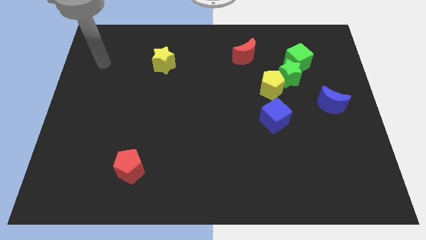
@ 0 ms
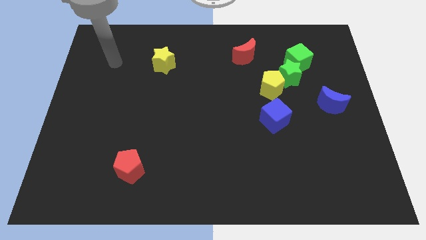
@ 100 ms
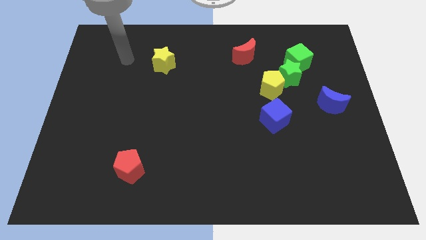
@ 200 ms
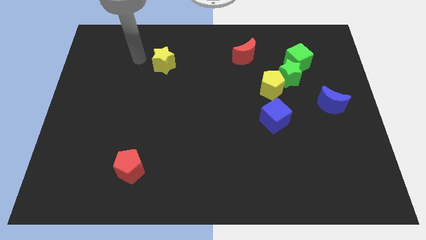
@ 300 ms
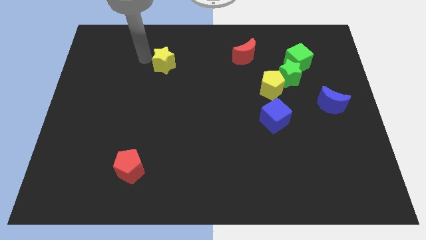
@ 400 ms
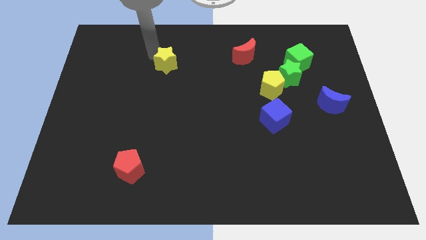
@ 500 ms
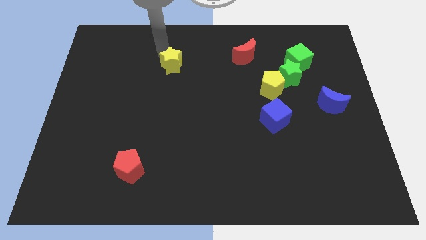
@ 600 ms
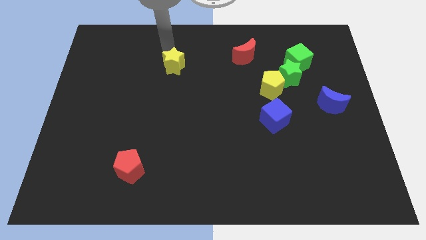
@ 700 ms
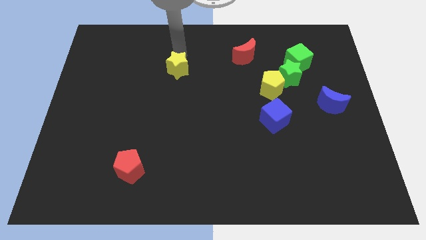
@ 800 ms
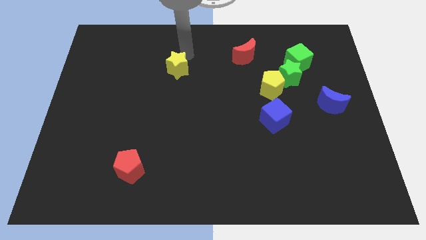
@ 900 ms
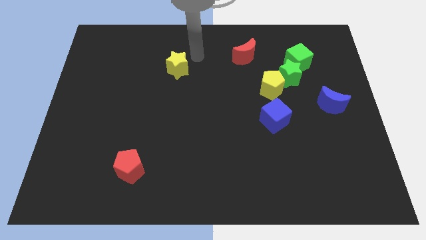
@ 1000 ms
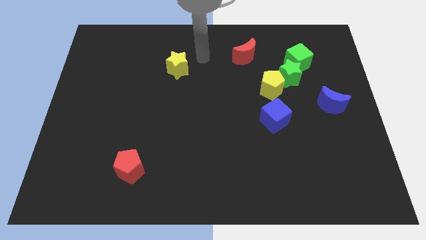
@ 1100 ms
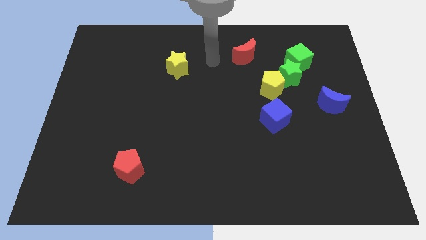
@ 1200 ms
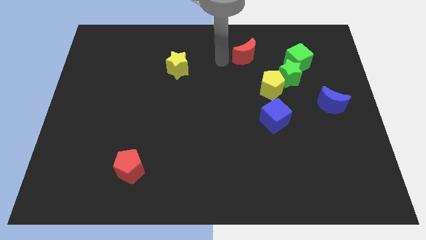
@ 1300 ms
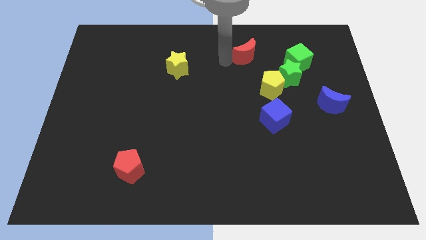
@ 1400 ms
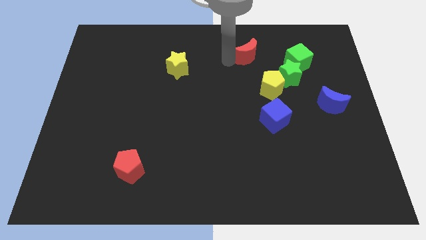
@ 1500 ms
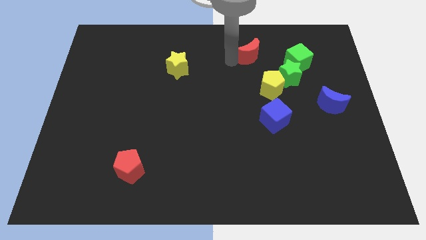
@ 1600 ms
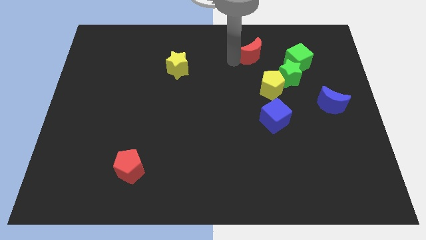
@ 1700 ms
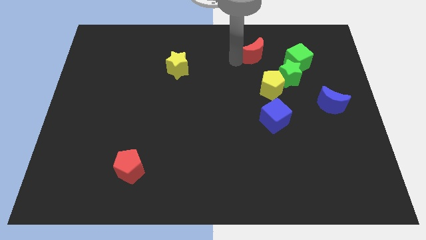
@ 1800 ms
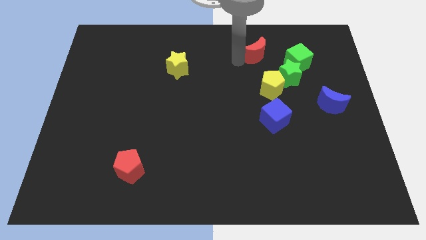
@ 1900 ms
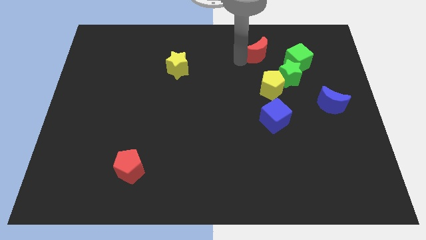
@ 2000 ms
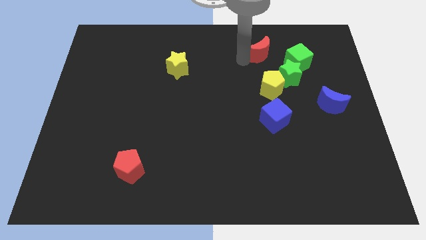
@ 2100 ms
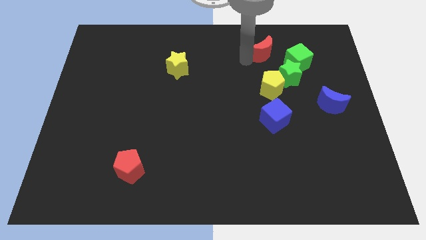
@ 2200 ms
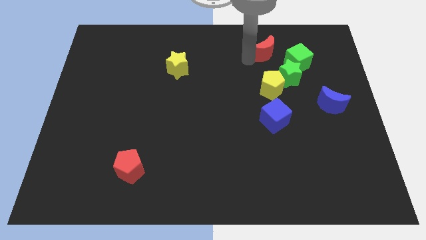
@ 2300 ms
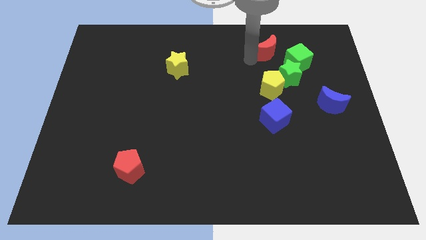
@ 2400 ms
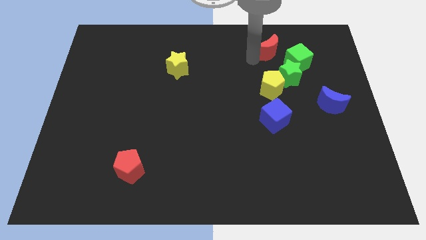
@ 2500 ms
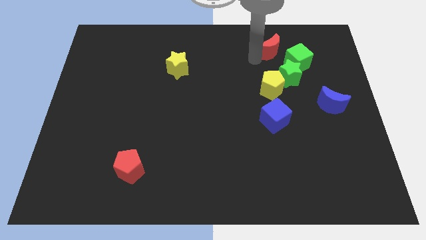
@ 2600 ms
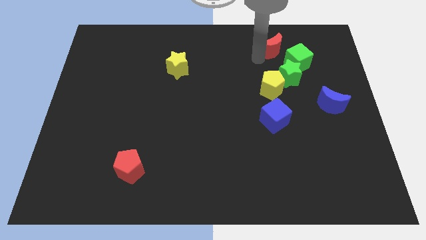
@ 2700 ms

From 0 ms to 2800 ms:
push the red moon to the right a little

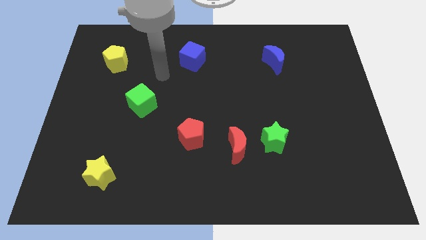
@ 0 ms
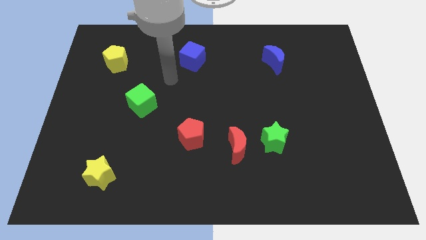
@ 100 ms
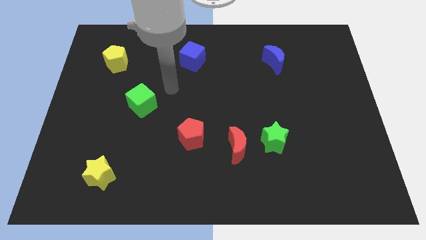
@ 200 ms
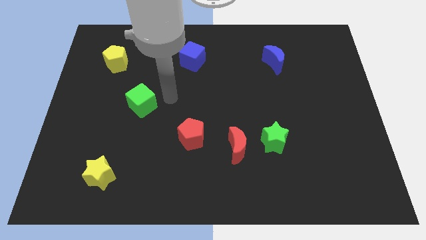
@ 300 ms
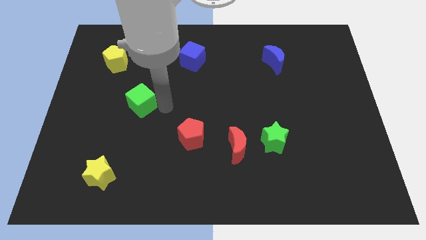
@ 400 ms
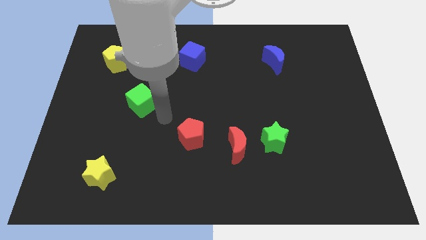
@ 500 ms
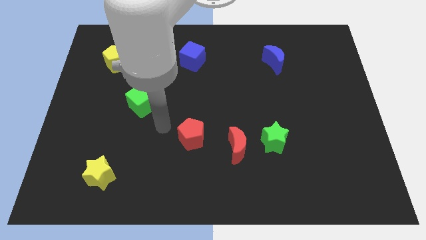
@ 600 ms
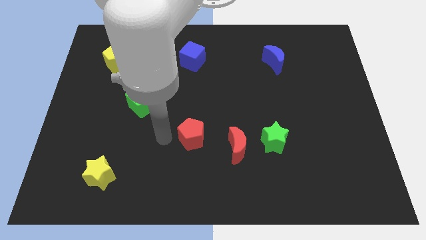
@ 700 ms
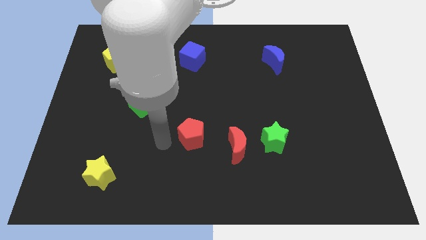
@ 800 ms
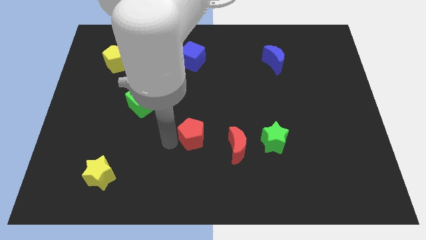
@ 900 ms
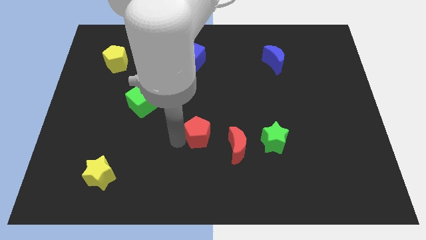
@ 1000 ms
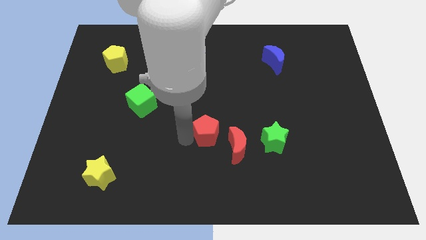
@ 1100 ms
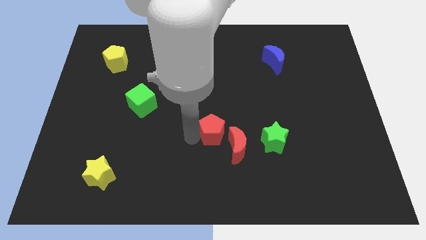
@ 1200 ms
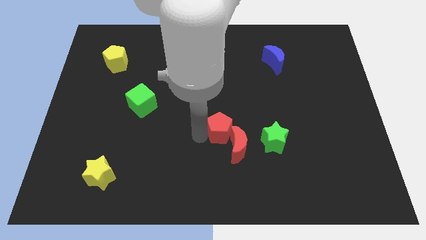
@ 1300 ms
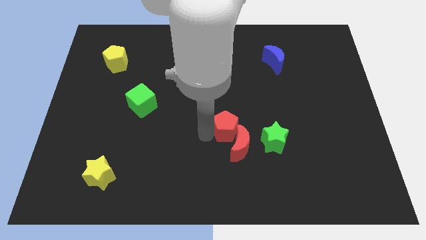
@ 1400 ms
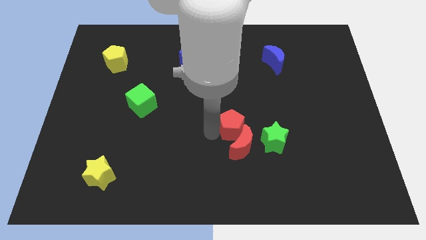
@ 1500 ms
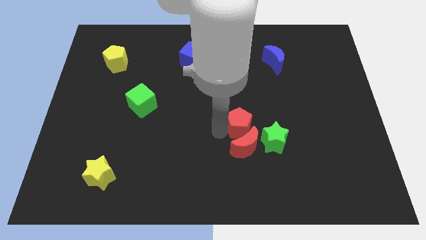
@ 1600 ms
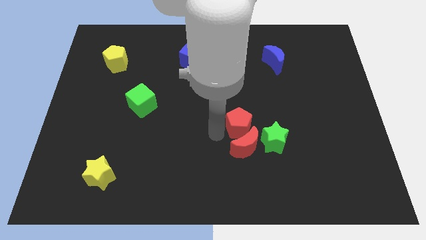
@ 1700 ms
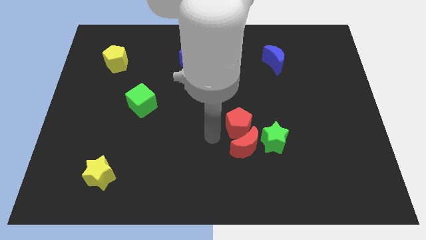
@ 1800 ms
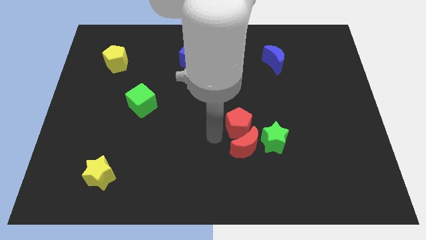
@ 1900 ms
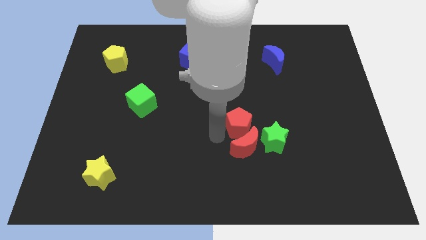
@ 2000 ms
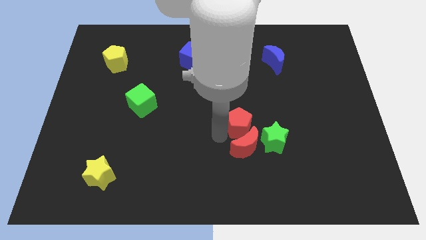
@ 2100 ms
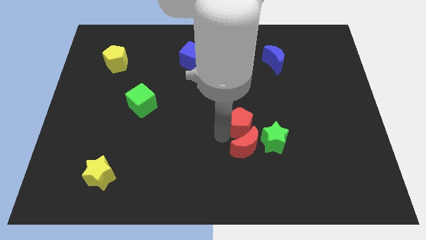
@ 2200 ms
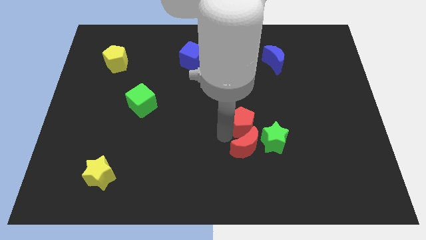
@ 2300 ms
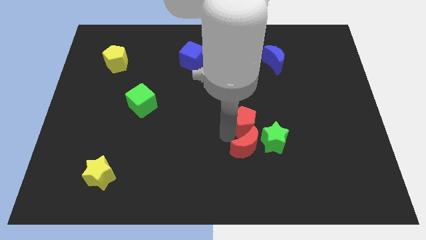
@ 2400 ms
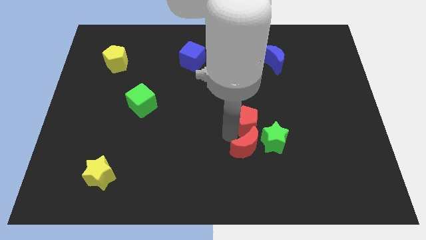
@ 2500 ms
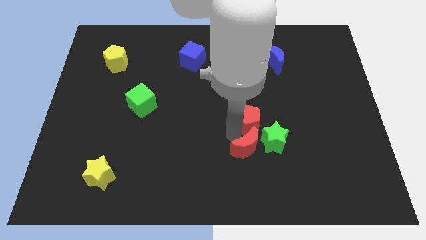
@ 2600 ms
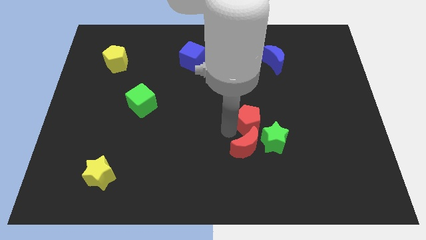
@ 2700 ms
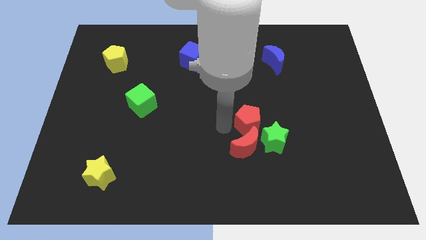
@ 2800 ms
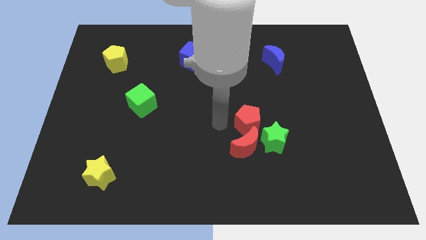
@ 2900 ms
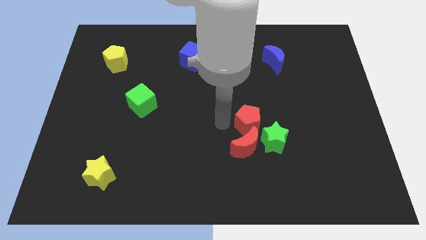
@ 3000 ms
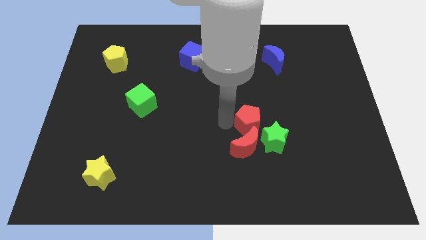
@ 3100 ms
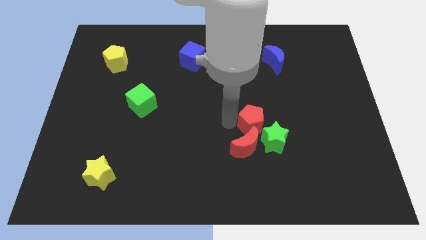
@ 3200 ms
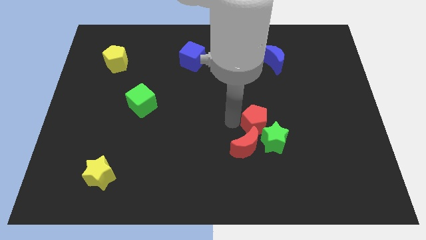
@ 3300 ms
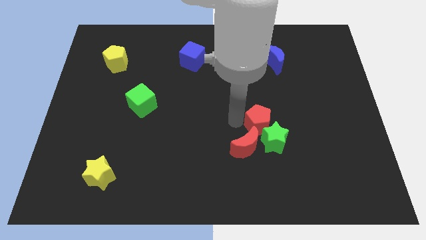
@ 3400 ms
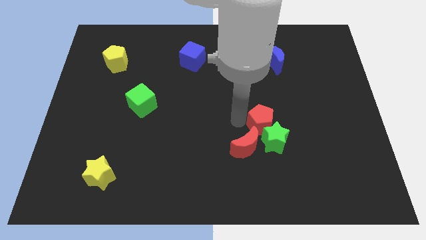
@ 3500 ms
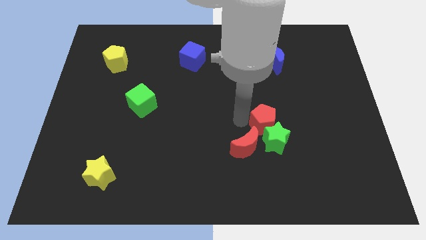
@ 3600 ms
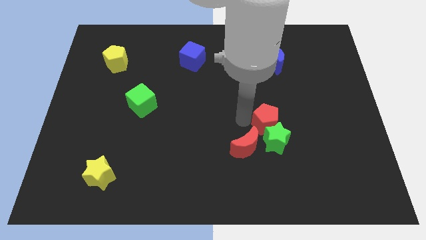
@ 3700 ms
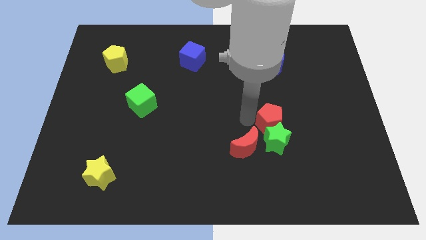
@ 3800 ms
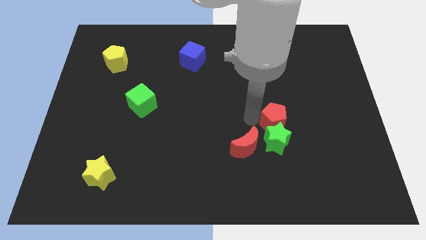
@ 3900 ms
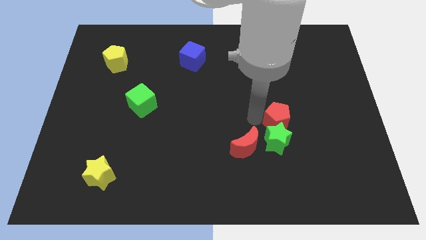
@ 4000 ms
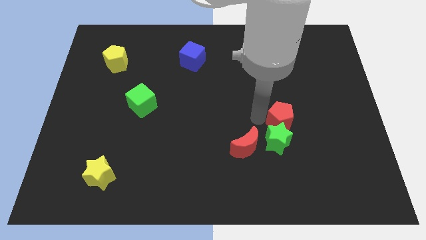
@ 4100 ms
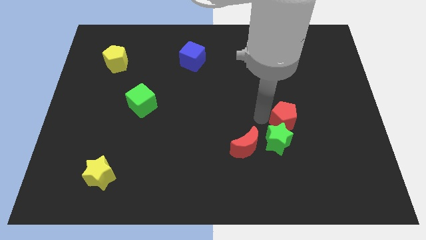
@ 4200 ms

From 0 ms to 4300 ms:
push the red pentagon right

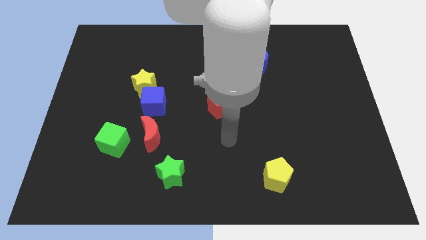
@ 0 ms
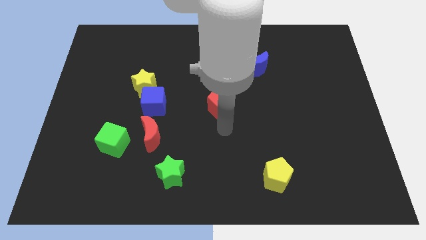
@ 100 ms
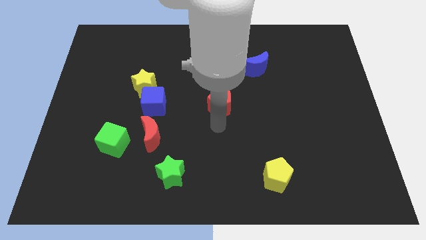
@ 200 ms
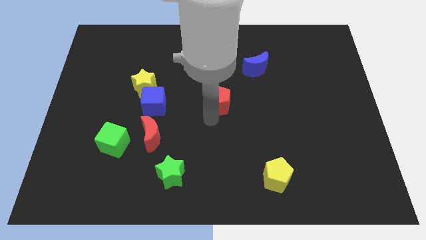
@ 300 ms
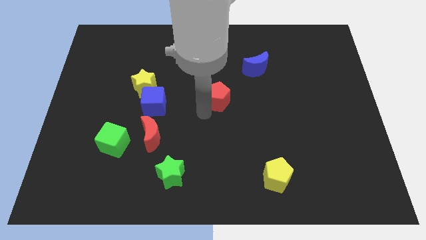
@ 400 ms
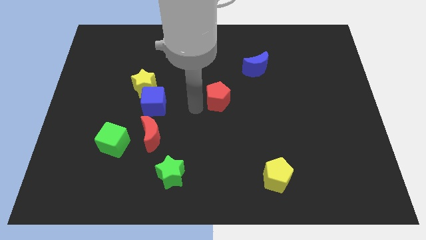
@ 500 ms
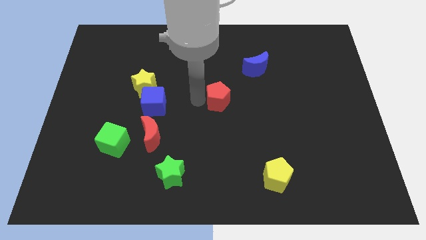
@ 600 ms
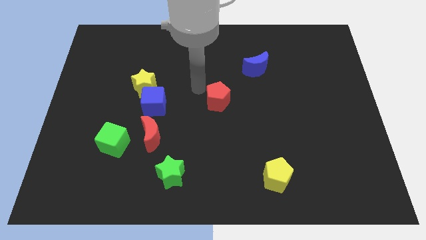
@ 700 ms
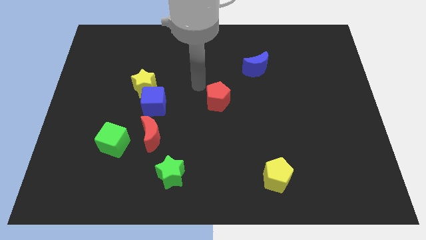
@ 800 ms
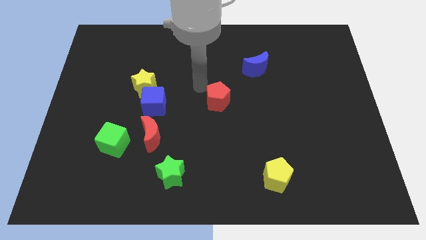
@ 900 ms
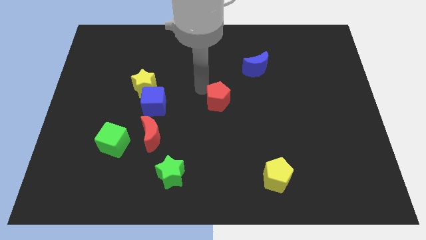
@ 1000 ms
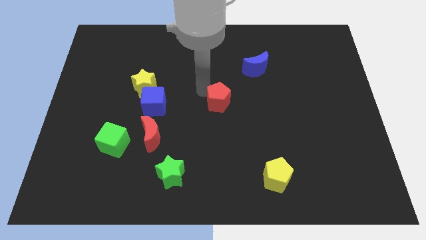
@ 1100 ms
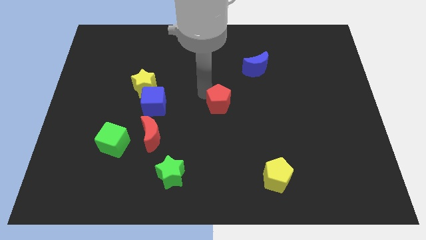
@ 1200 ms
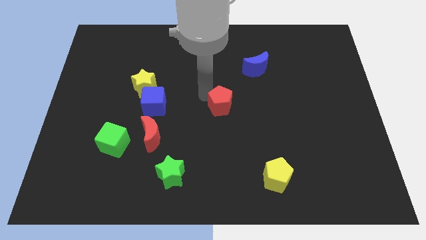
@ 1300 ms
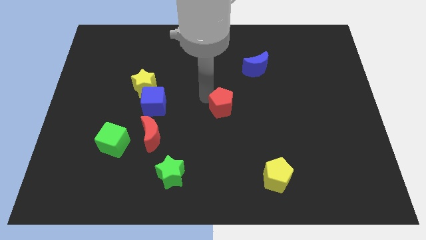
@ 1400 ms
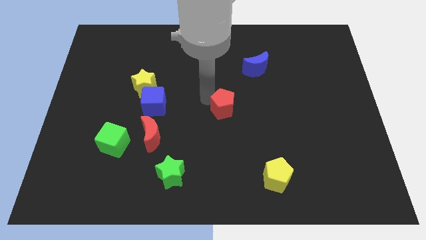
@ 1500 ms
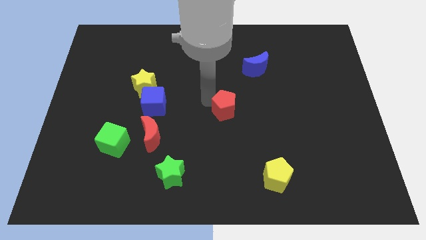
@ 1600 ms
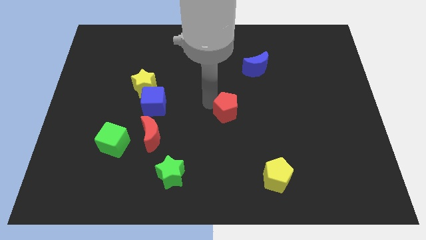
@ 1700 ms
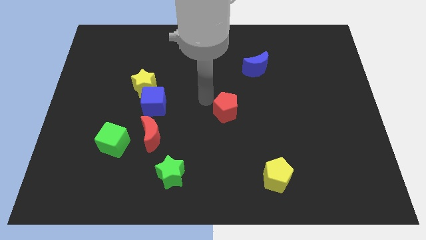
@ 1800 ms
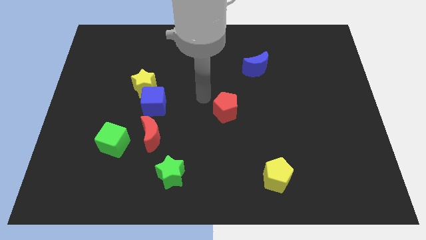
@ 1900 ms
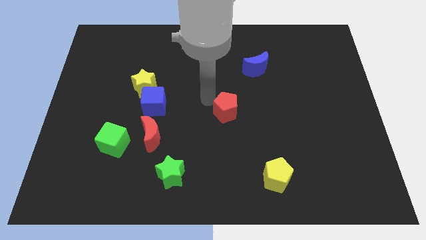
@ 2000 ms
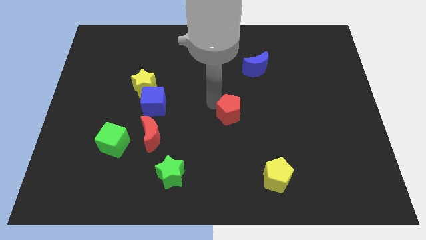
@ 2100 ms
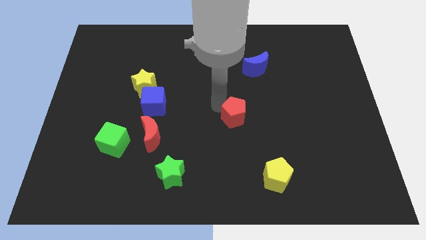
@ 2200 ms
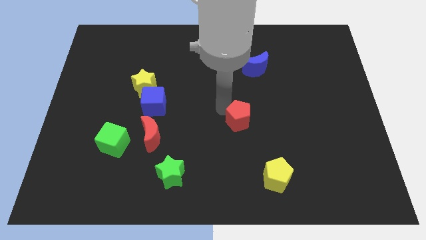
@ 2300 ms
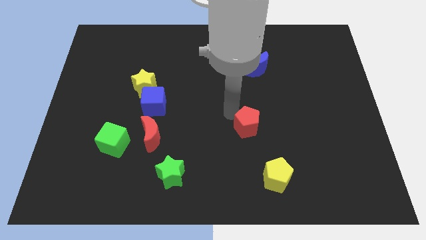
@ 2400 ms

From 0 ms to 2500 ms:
push the red pentagon downwards and right diagonally a bit
